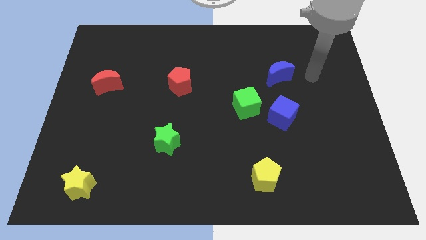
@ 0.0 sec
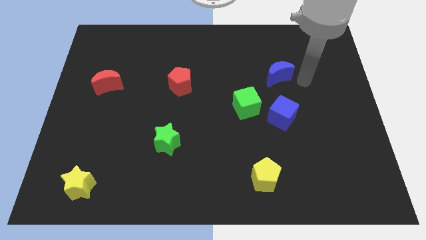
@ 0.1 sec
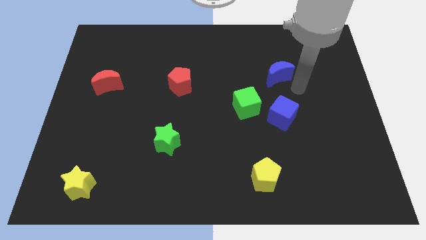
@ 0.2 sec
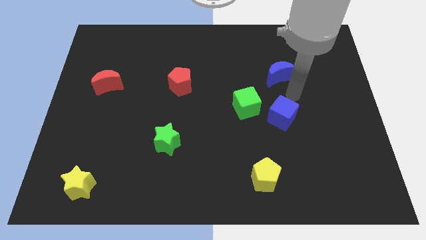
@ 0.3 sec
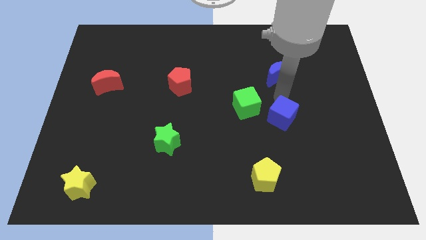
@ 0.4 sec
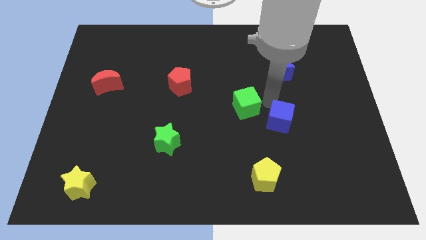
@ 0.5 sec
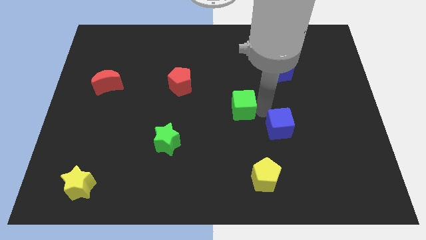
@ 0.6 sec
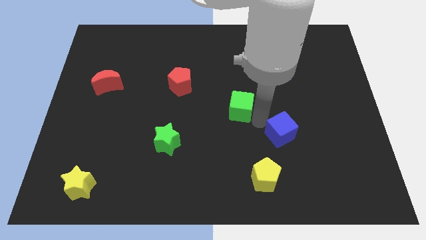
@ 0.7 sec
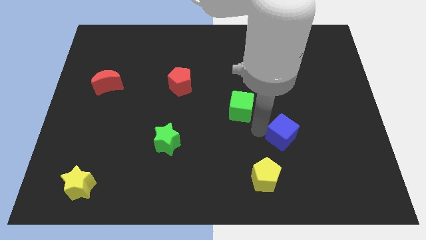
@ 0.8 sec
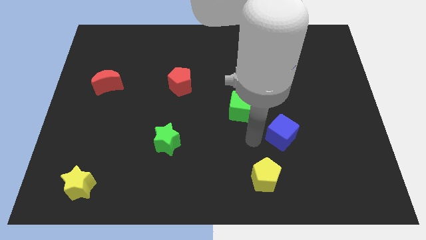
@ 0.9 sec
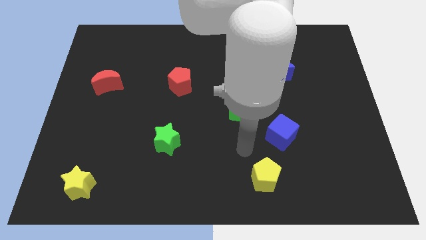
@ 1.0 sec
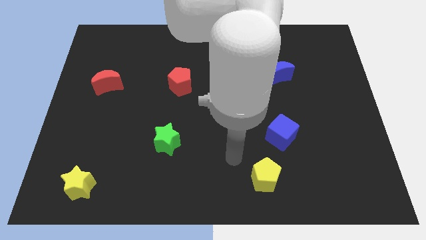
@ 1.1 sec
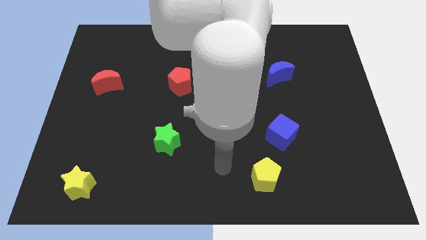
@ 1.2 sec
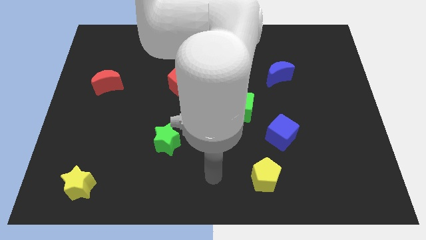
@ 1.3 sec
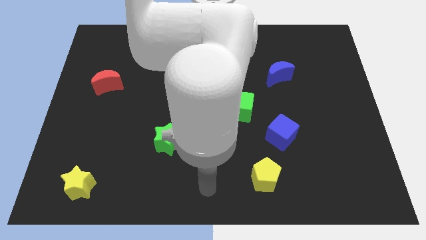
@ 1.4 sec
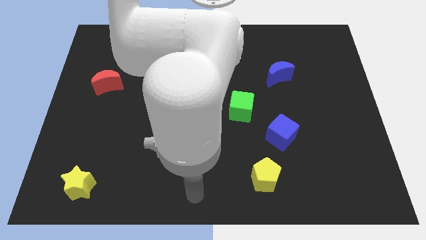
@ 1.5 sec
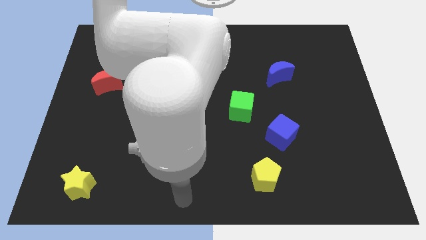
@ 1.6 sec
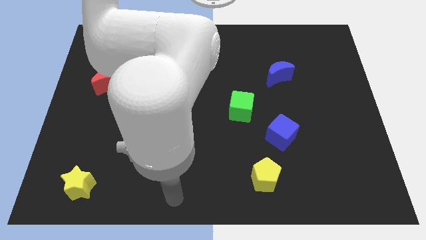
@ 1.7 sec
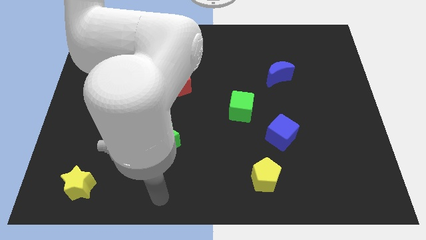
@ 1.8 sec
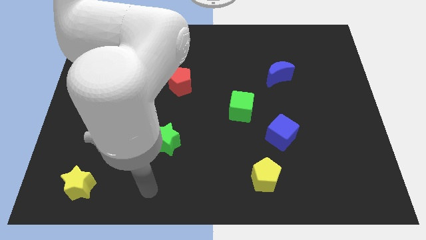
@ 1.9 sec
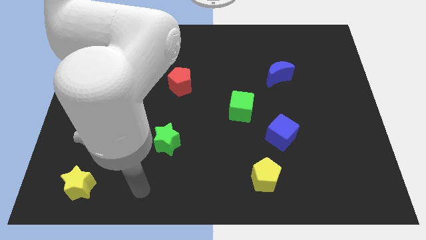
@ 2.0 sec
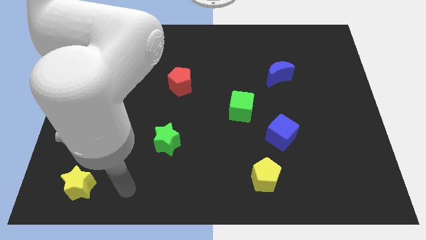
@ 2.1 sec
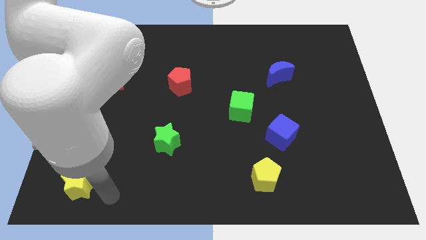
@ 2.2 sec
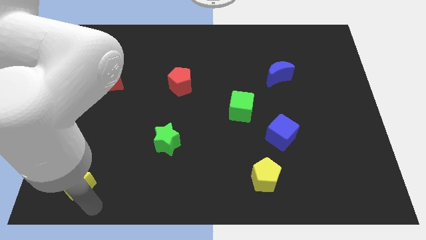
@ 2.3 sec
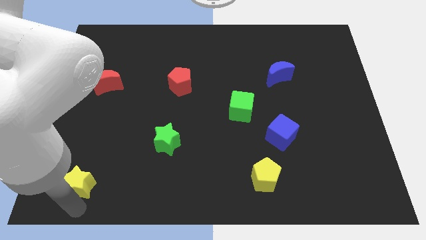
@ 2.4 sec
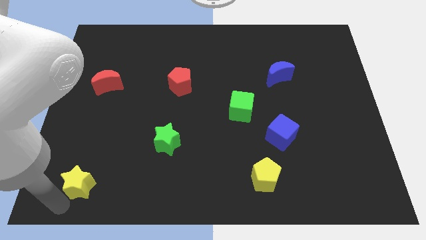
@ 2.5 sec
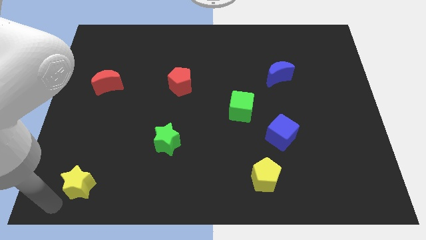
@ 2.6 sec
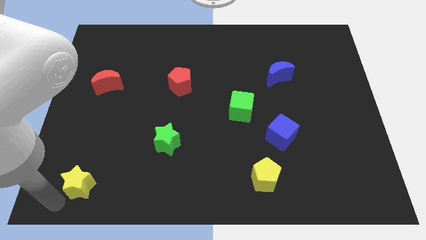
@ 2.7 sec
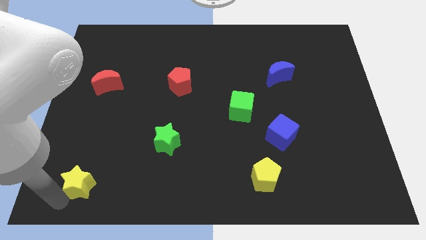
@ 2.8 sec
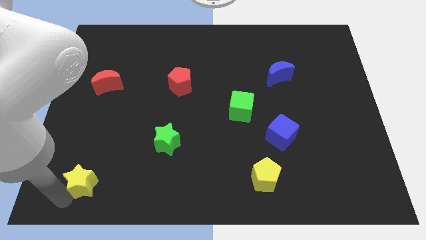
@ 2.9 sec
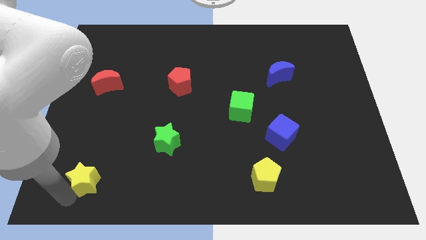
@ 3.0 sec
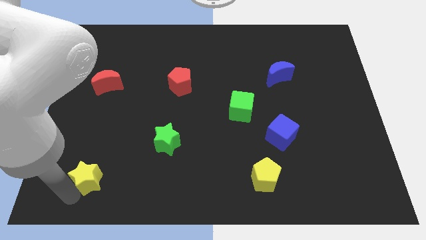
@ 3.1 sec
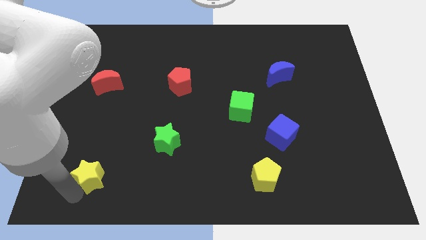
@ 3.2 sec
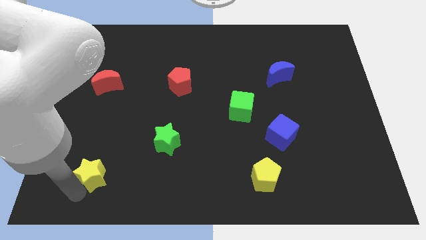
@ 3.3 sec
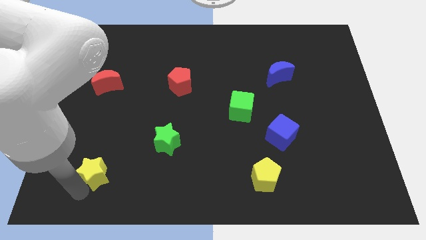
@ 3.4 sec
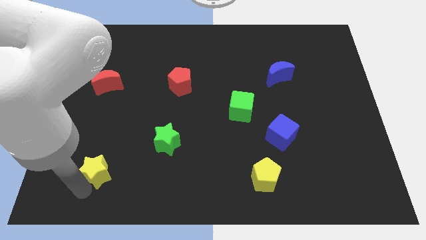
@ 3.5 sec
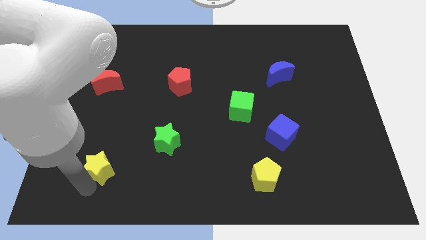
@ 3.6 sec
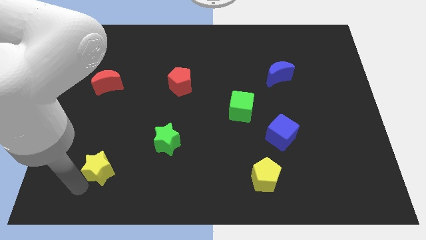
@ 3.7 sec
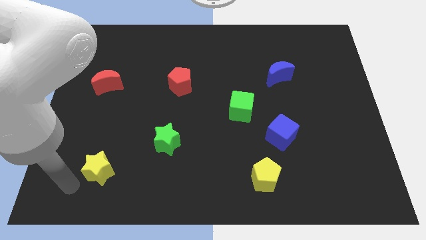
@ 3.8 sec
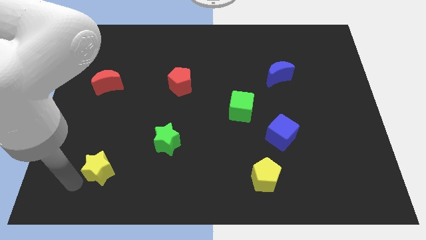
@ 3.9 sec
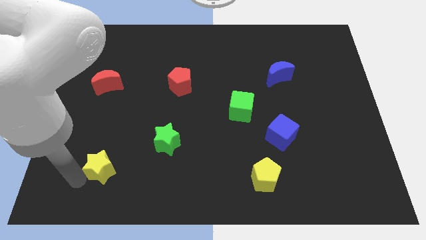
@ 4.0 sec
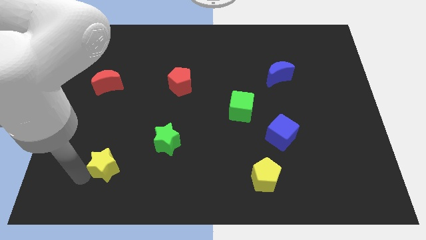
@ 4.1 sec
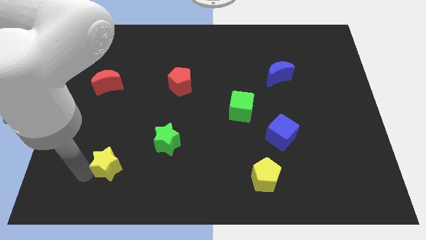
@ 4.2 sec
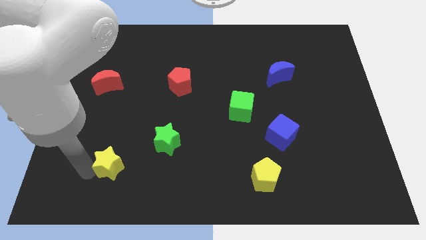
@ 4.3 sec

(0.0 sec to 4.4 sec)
push the yellow star slightly upwards and to the right diagonally

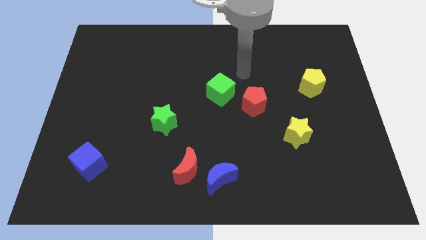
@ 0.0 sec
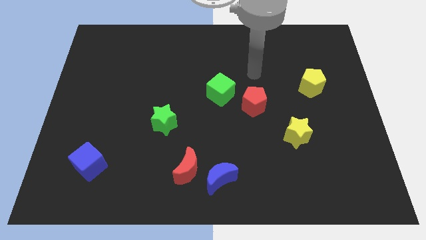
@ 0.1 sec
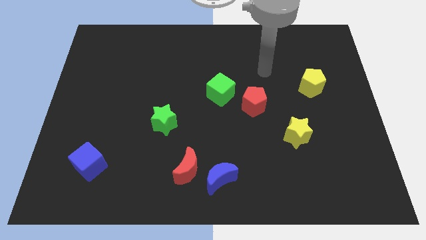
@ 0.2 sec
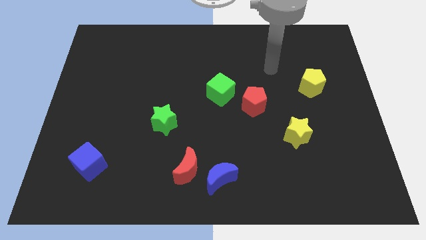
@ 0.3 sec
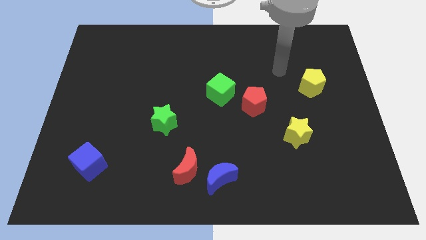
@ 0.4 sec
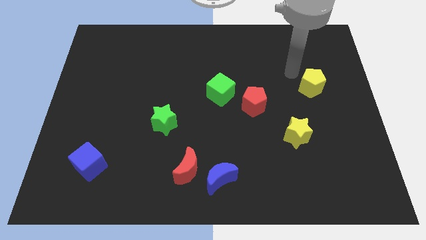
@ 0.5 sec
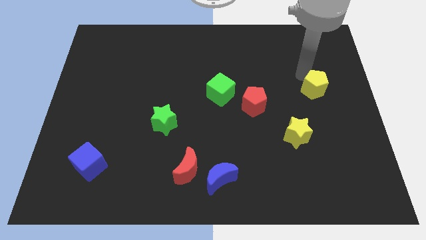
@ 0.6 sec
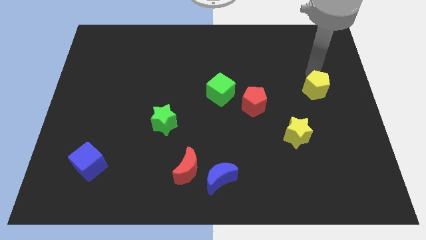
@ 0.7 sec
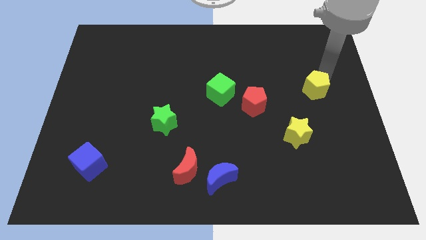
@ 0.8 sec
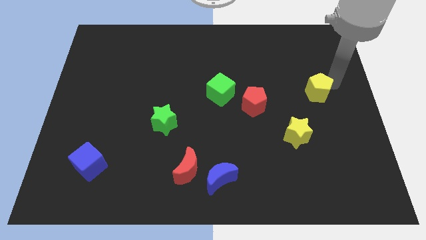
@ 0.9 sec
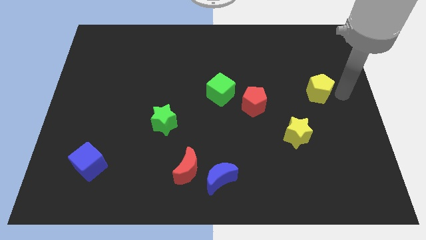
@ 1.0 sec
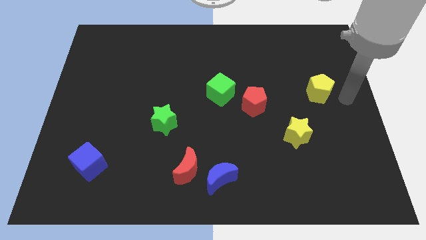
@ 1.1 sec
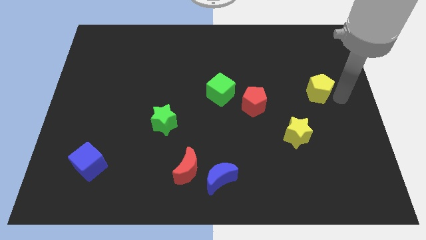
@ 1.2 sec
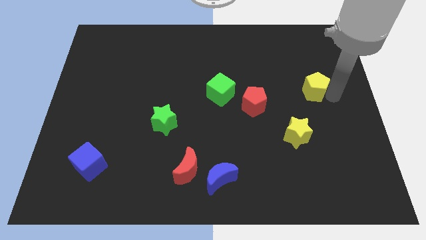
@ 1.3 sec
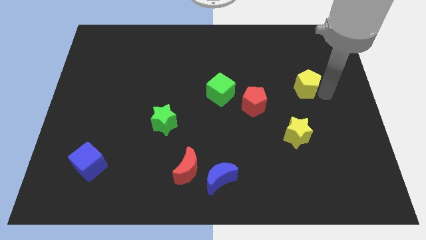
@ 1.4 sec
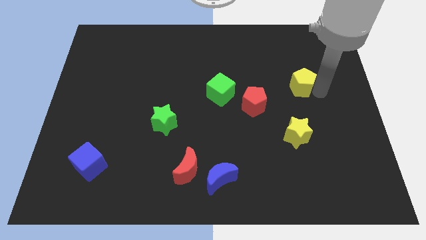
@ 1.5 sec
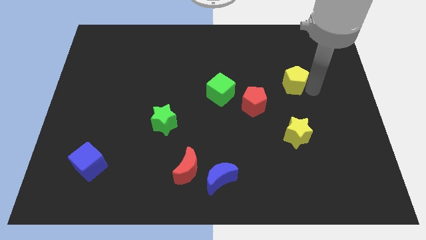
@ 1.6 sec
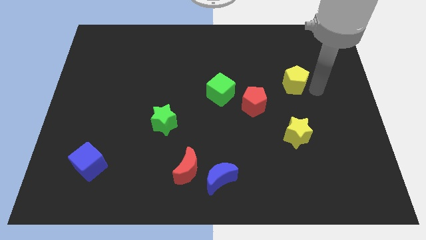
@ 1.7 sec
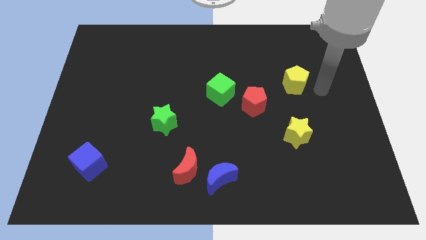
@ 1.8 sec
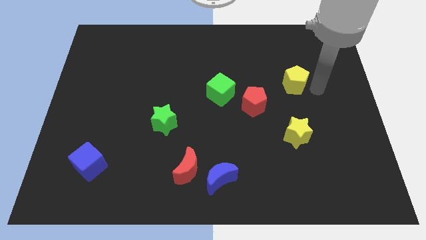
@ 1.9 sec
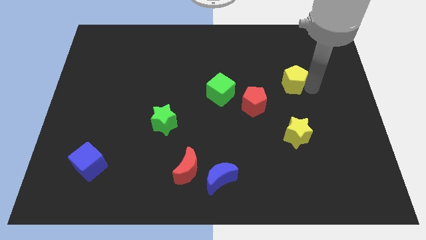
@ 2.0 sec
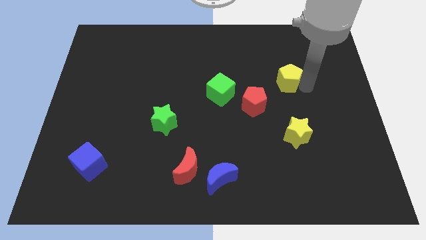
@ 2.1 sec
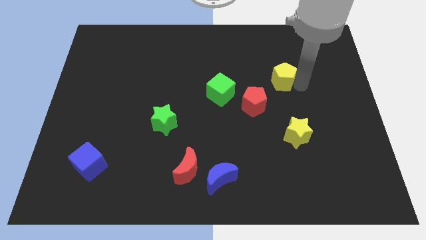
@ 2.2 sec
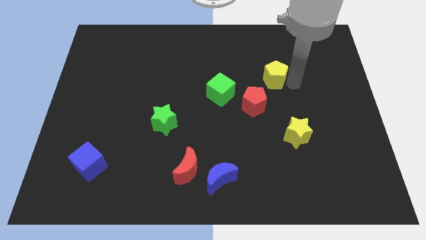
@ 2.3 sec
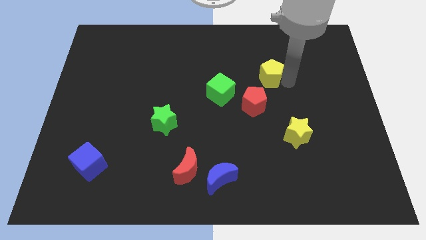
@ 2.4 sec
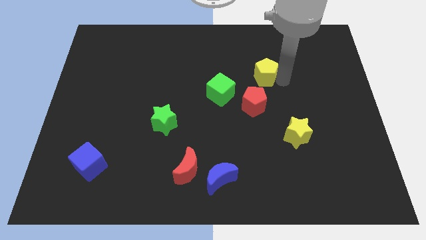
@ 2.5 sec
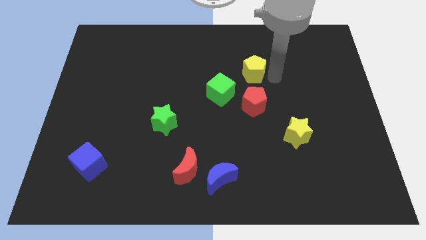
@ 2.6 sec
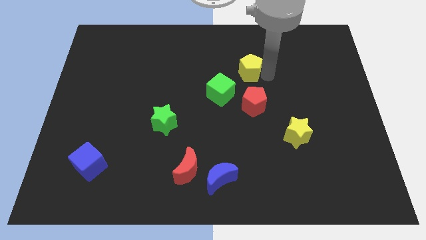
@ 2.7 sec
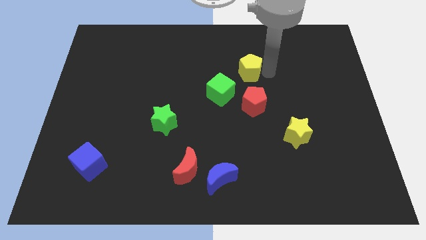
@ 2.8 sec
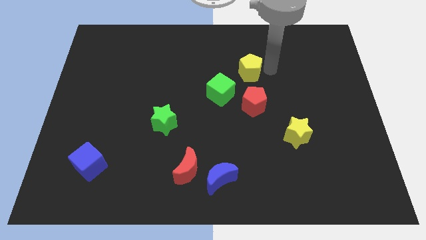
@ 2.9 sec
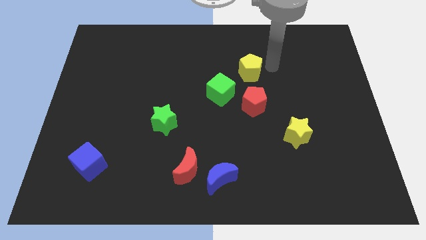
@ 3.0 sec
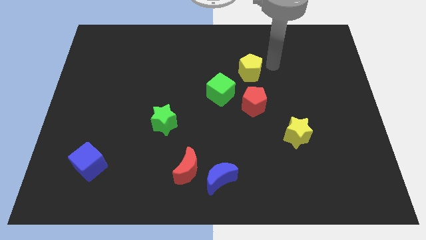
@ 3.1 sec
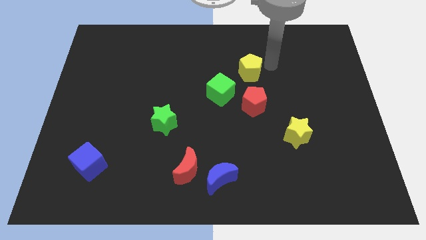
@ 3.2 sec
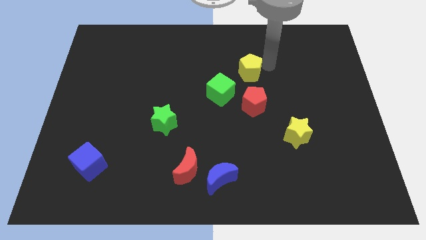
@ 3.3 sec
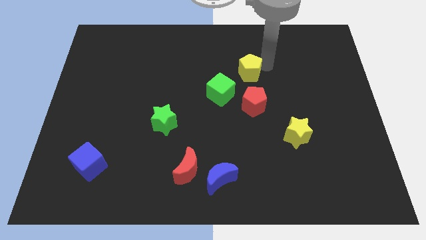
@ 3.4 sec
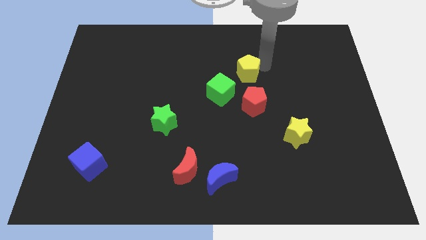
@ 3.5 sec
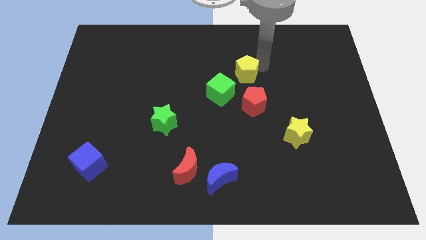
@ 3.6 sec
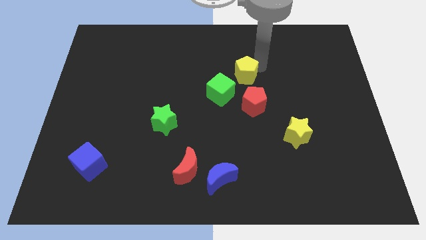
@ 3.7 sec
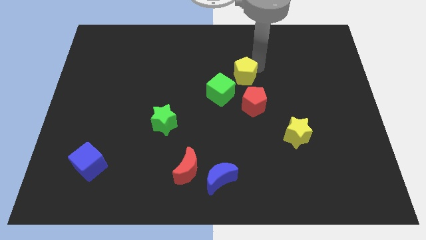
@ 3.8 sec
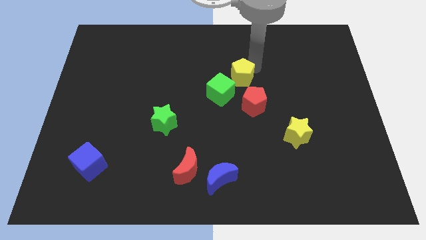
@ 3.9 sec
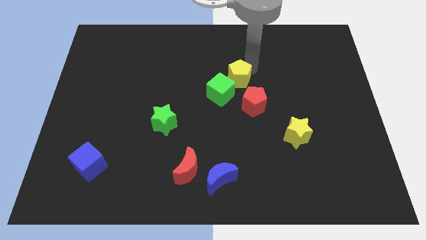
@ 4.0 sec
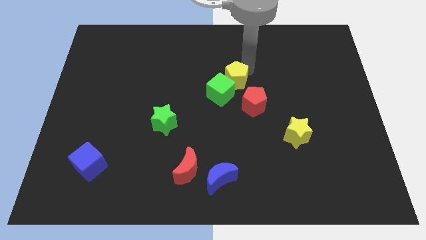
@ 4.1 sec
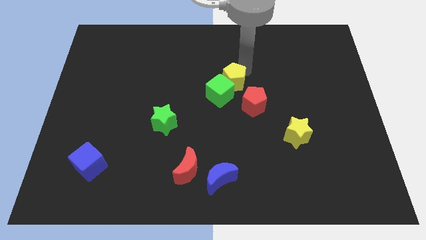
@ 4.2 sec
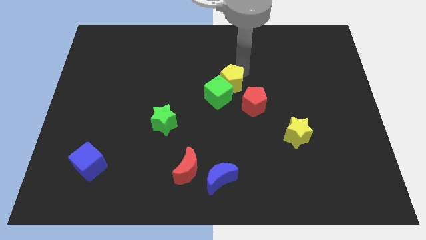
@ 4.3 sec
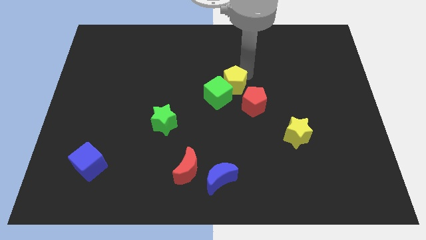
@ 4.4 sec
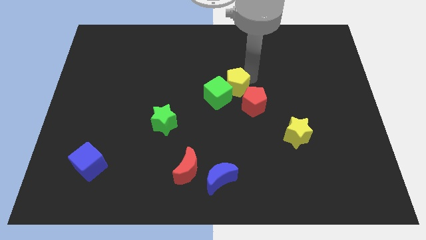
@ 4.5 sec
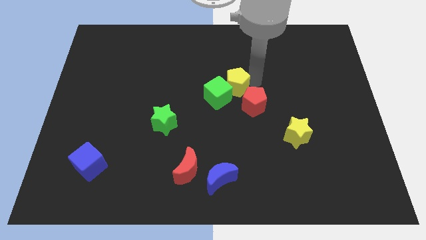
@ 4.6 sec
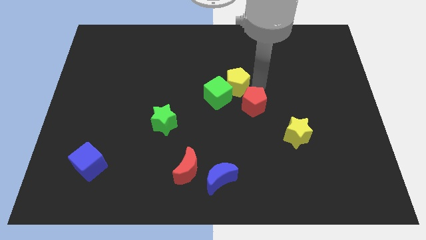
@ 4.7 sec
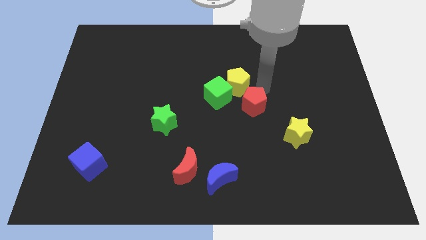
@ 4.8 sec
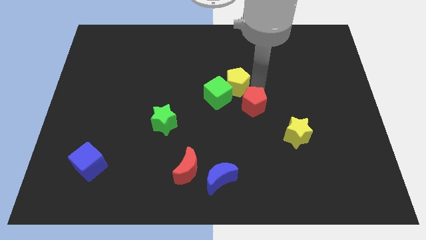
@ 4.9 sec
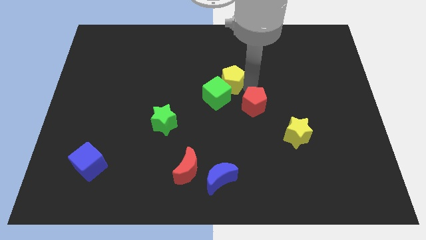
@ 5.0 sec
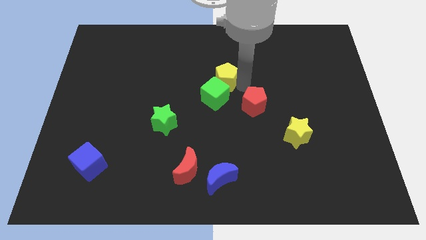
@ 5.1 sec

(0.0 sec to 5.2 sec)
push the yellow pentagon to the left
